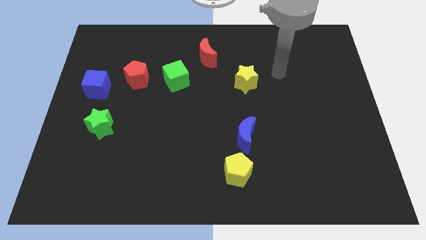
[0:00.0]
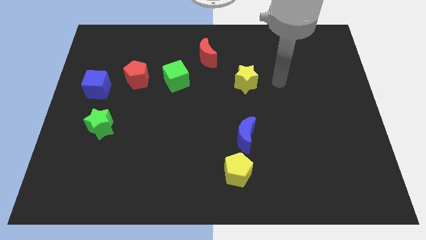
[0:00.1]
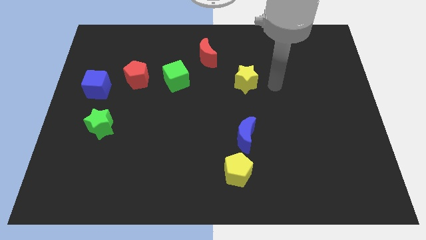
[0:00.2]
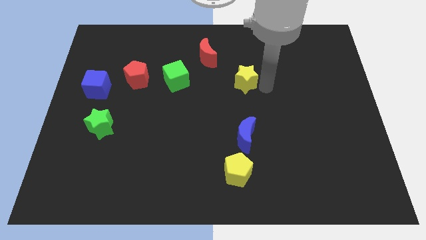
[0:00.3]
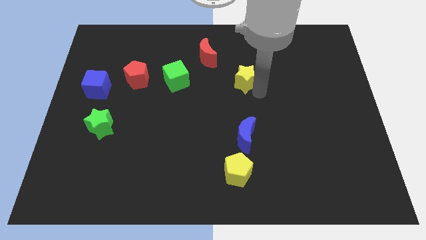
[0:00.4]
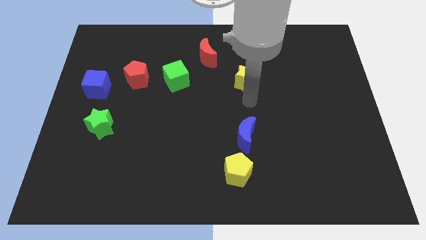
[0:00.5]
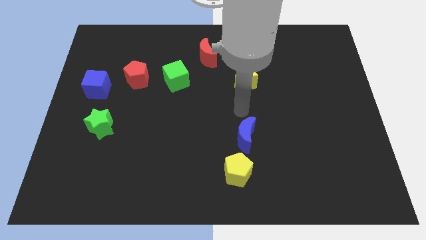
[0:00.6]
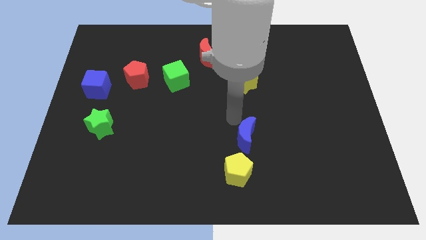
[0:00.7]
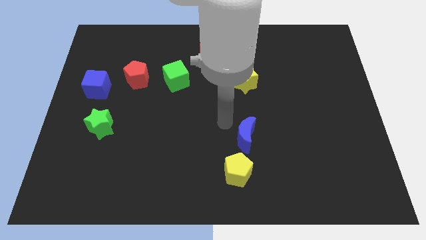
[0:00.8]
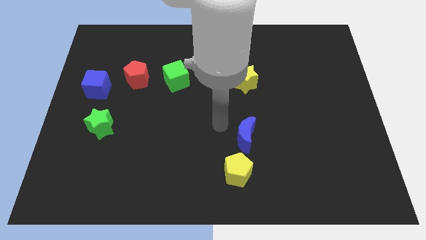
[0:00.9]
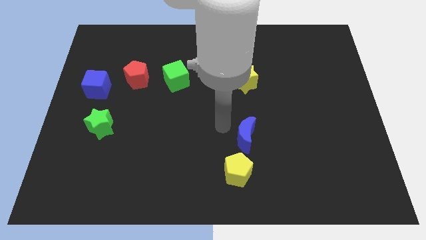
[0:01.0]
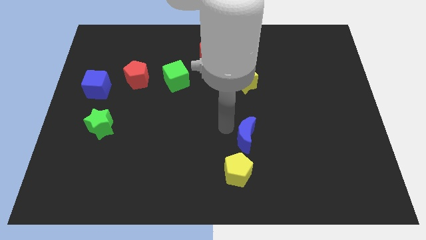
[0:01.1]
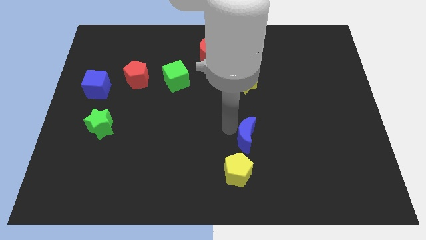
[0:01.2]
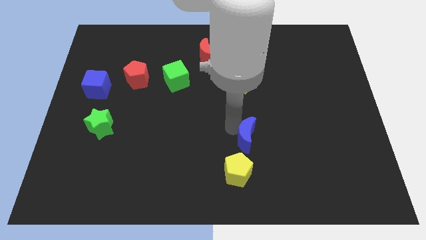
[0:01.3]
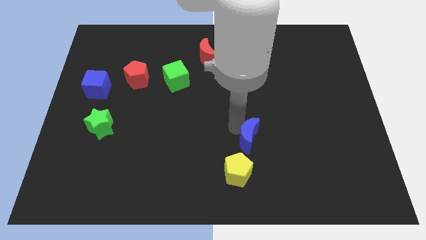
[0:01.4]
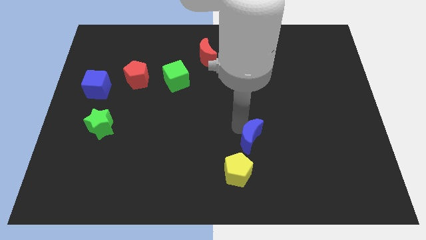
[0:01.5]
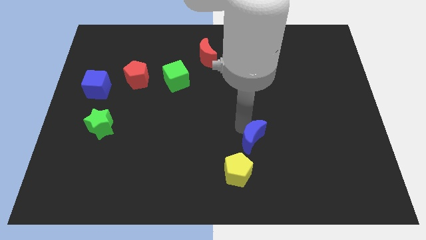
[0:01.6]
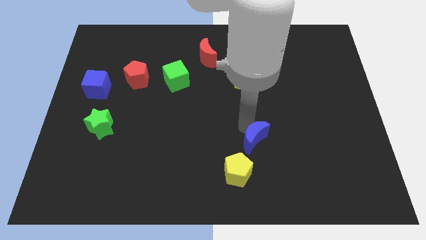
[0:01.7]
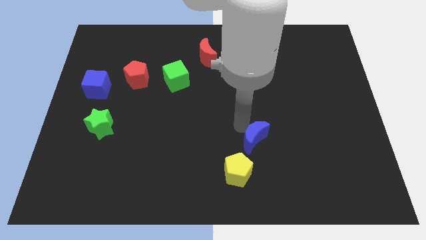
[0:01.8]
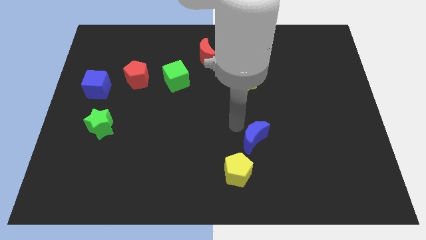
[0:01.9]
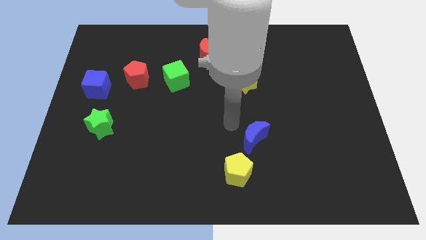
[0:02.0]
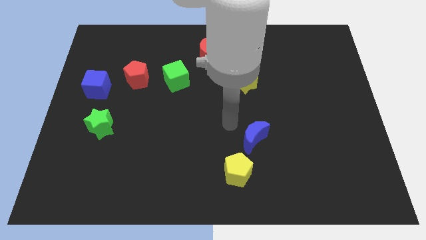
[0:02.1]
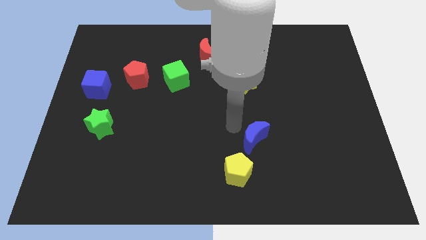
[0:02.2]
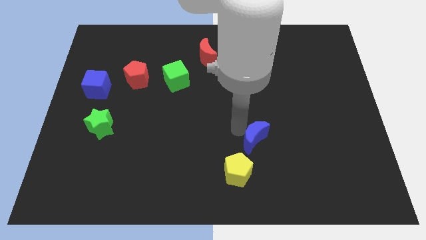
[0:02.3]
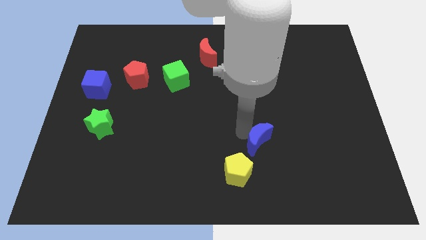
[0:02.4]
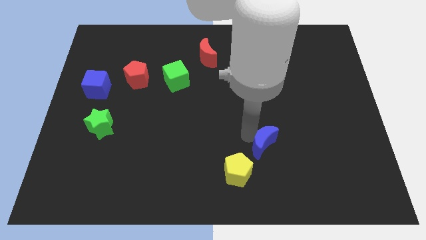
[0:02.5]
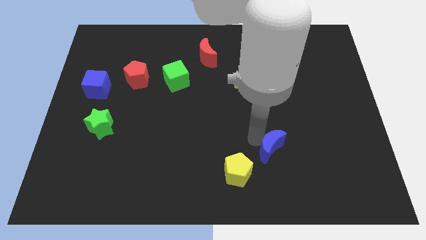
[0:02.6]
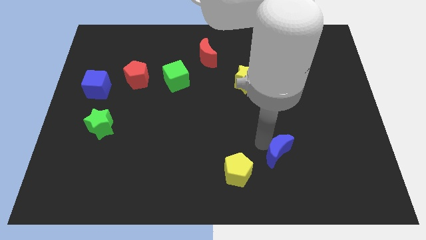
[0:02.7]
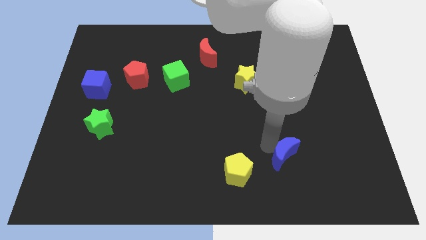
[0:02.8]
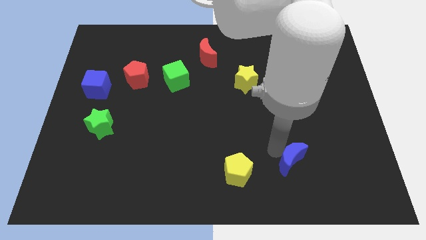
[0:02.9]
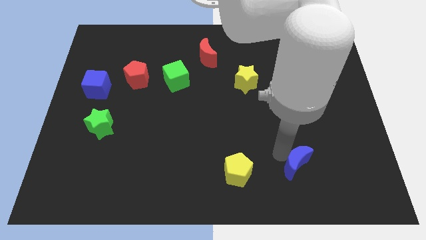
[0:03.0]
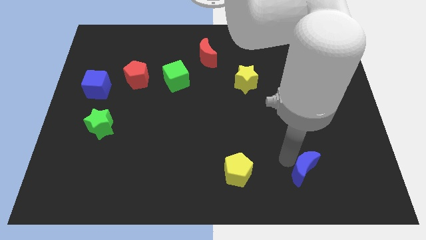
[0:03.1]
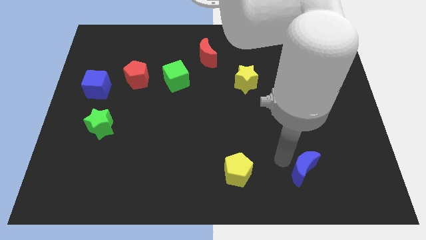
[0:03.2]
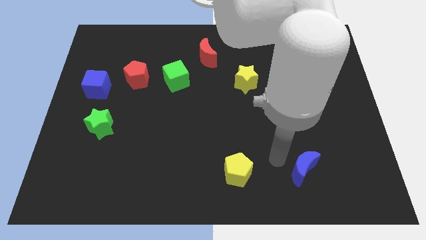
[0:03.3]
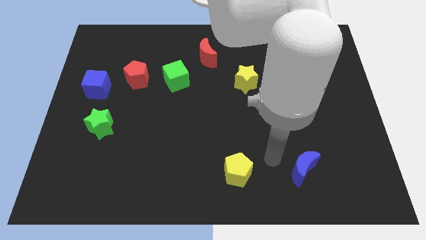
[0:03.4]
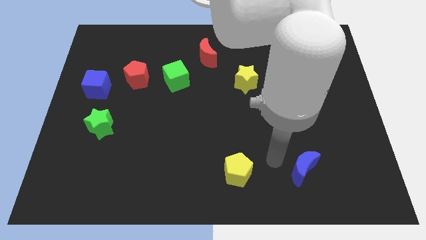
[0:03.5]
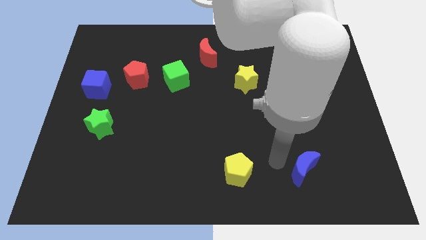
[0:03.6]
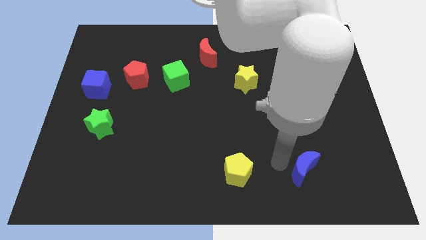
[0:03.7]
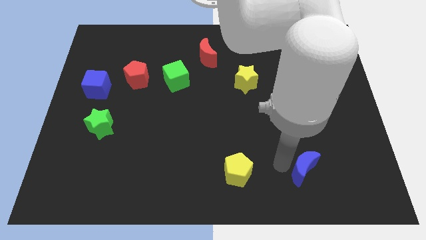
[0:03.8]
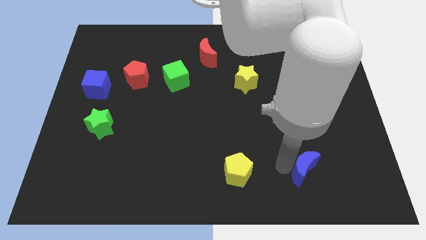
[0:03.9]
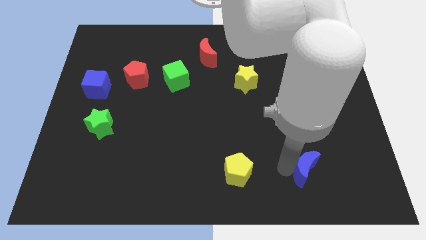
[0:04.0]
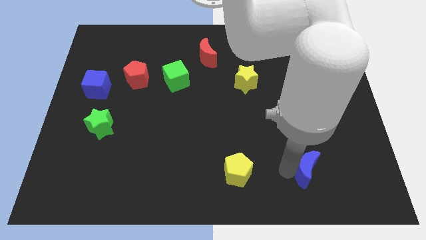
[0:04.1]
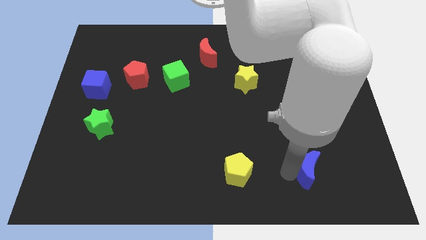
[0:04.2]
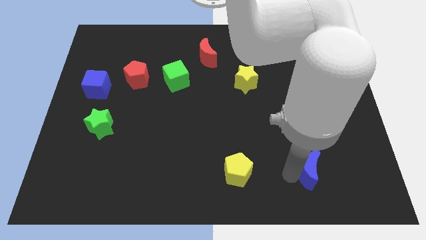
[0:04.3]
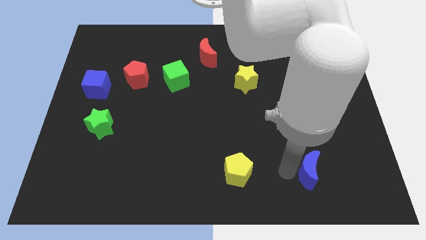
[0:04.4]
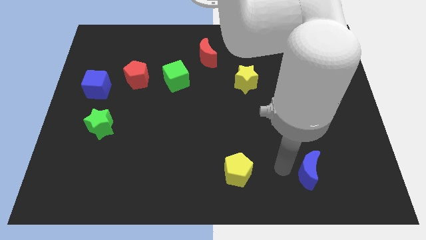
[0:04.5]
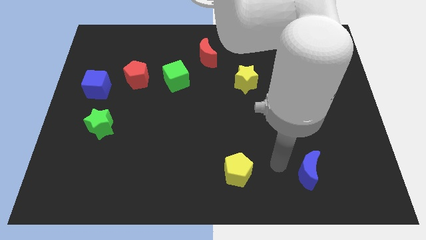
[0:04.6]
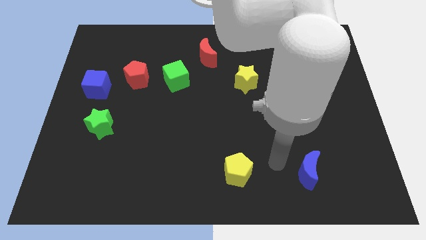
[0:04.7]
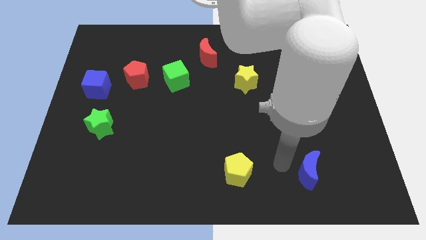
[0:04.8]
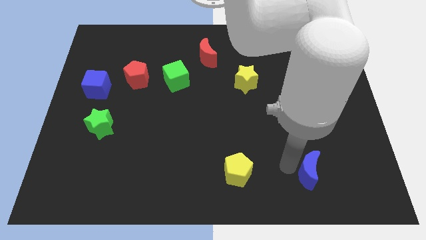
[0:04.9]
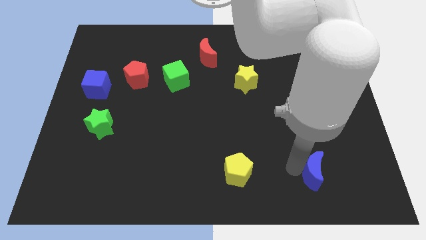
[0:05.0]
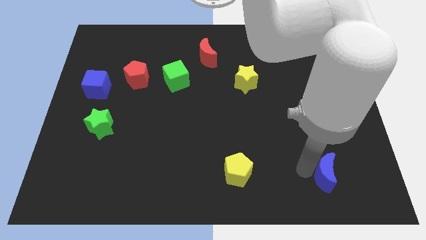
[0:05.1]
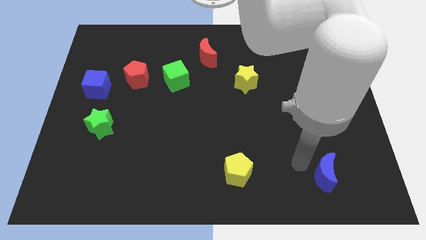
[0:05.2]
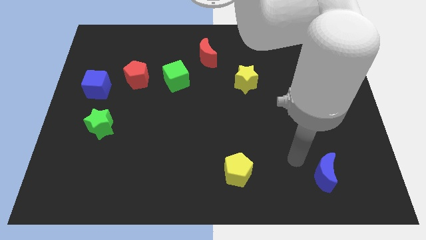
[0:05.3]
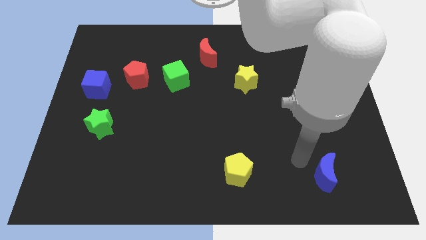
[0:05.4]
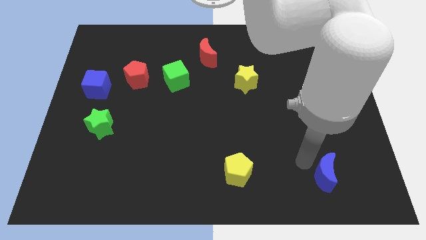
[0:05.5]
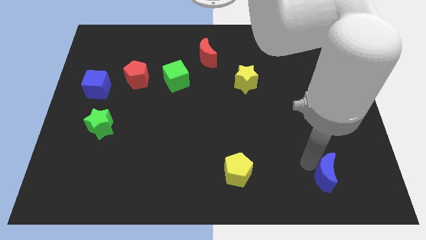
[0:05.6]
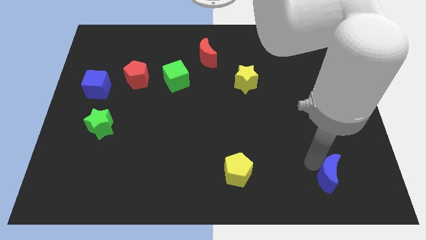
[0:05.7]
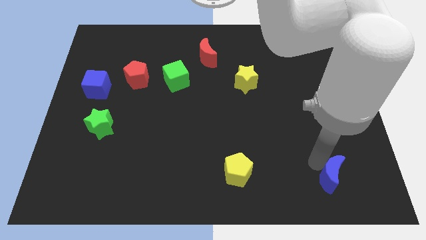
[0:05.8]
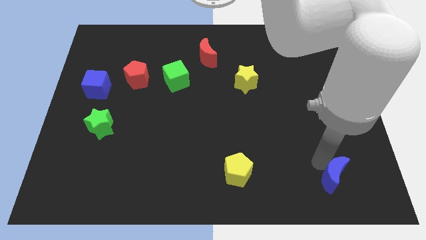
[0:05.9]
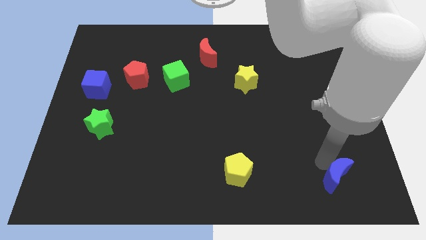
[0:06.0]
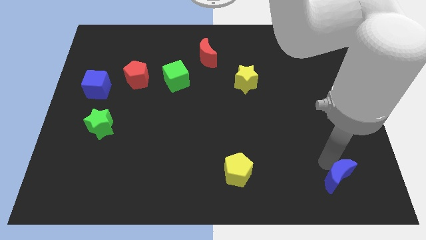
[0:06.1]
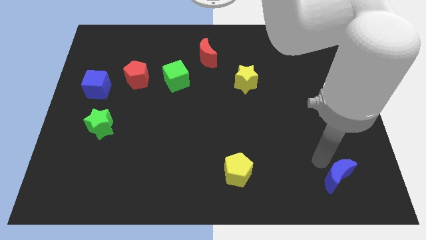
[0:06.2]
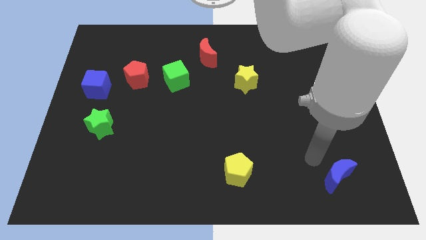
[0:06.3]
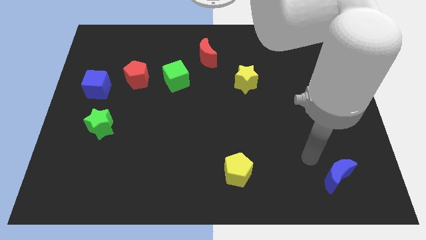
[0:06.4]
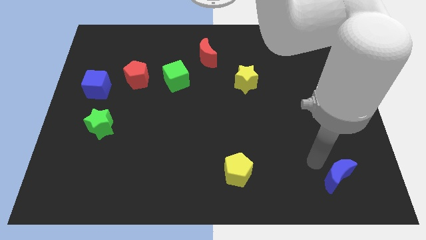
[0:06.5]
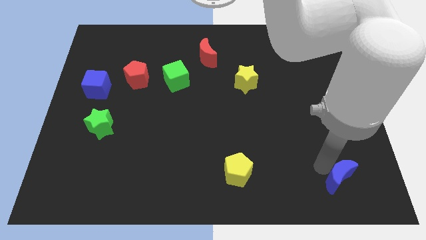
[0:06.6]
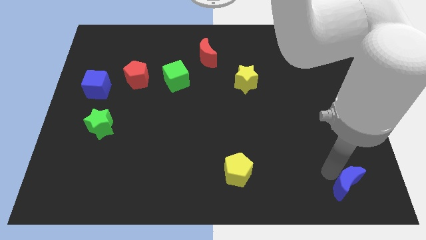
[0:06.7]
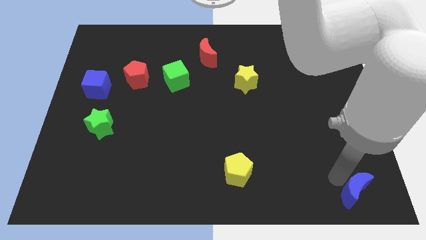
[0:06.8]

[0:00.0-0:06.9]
slide the blue moon to the lower right corner
